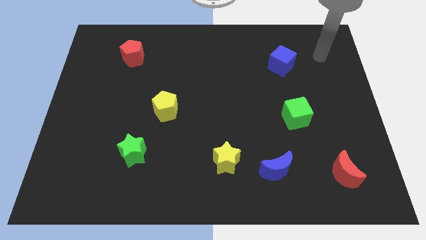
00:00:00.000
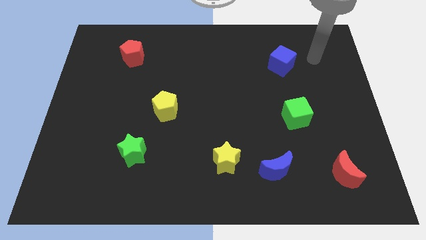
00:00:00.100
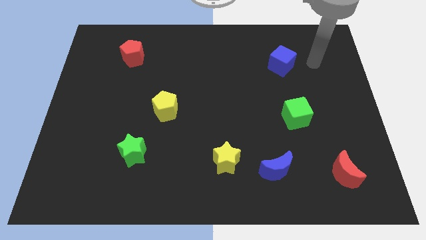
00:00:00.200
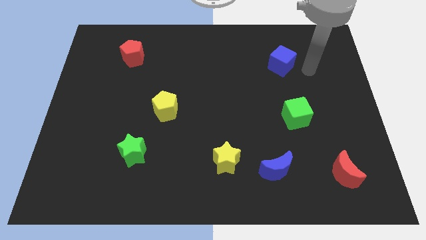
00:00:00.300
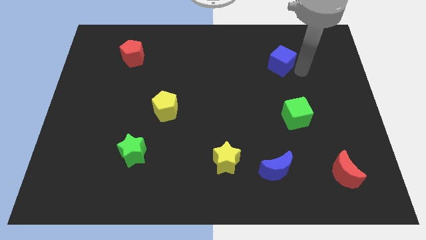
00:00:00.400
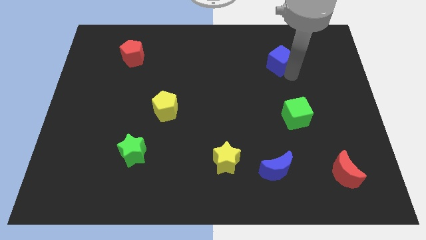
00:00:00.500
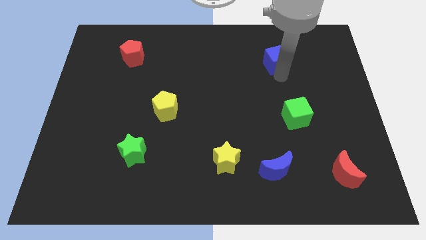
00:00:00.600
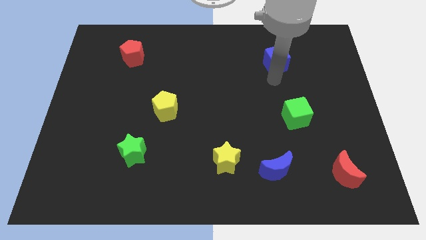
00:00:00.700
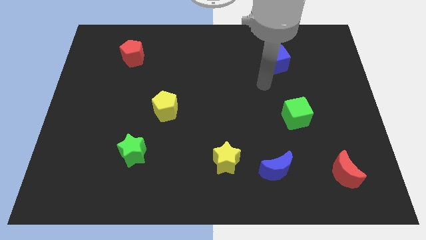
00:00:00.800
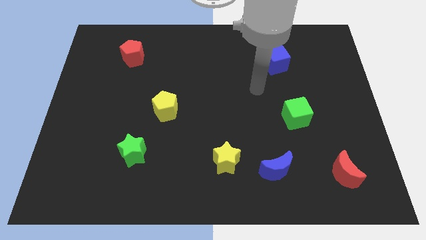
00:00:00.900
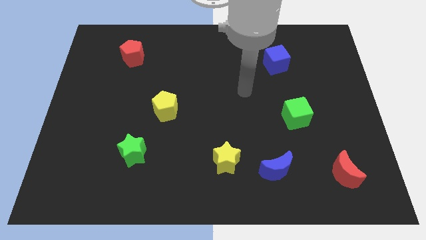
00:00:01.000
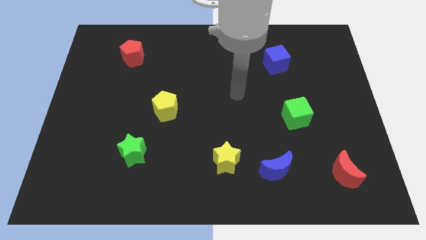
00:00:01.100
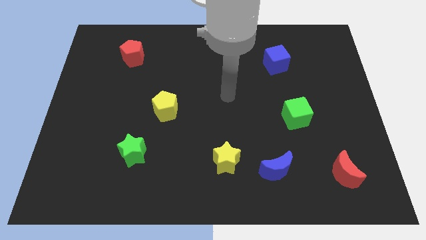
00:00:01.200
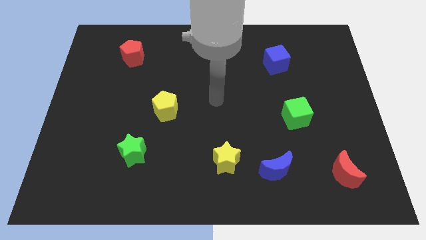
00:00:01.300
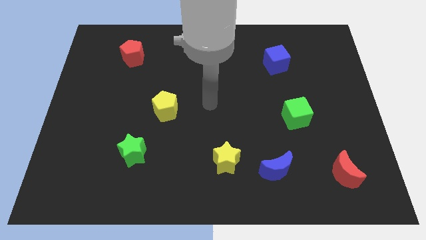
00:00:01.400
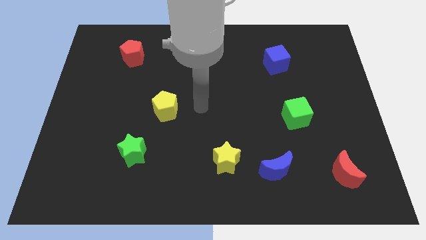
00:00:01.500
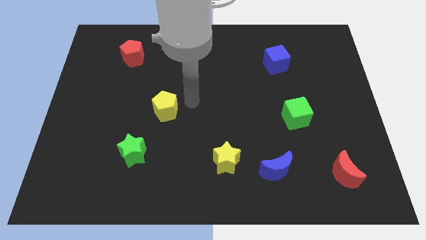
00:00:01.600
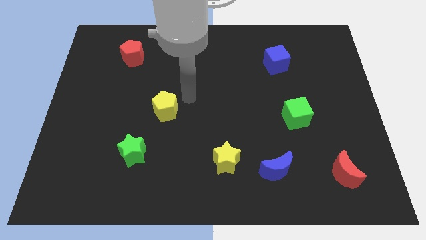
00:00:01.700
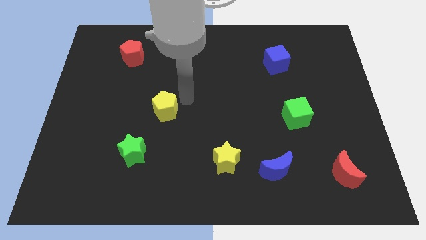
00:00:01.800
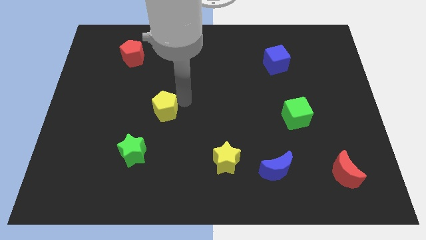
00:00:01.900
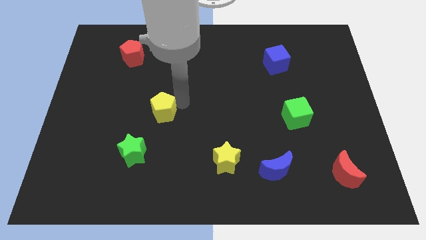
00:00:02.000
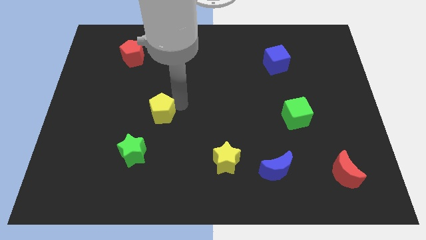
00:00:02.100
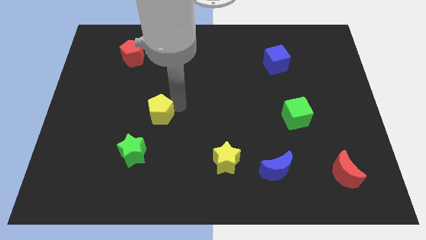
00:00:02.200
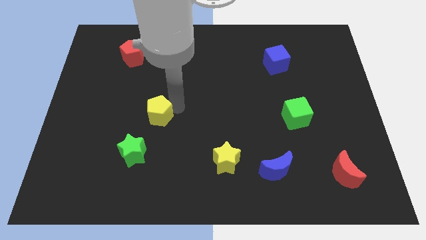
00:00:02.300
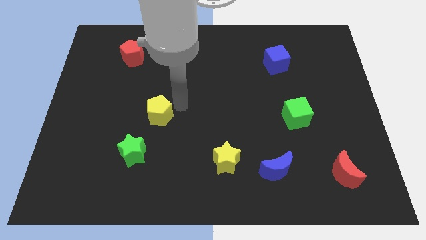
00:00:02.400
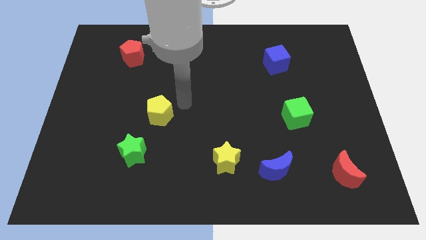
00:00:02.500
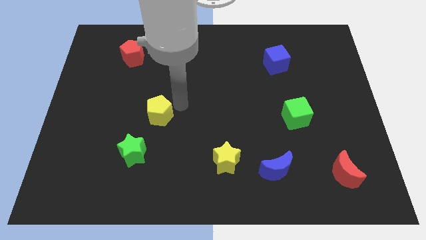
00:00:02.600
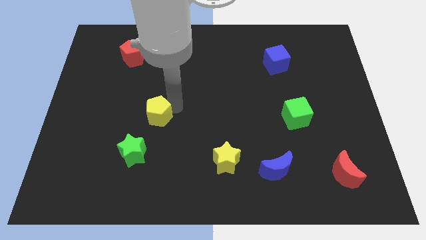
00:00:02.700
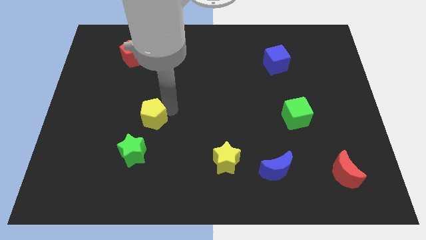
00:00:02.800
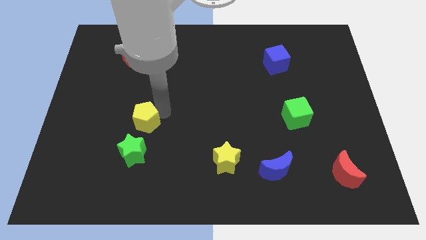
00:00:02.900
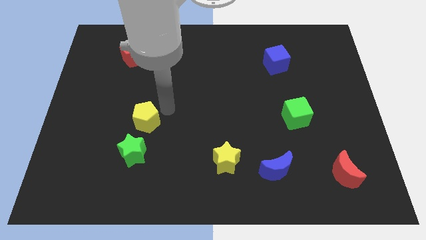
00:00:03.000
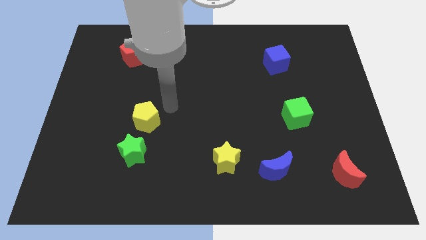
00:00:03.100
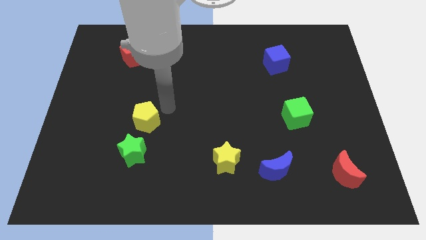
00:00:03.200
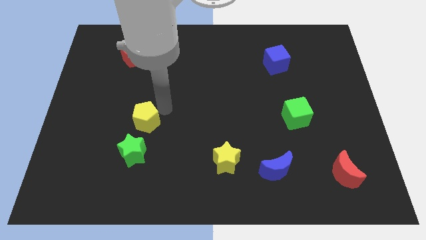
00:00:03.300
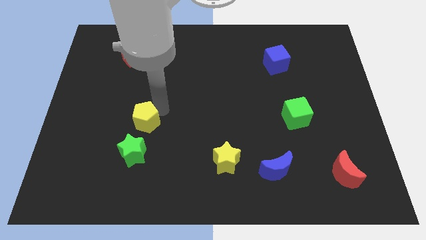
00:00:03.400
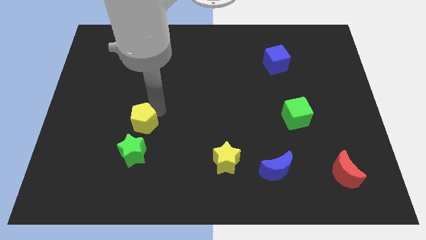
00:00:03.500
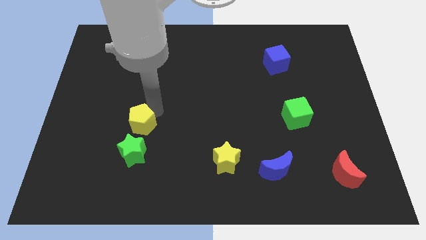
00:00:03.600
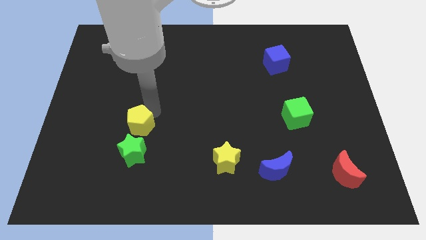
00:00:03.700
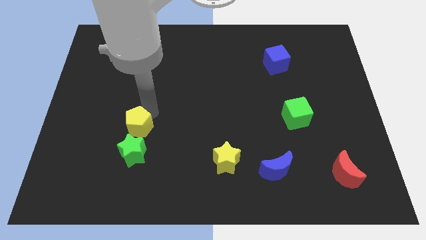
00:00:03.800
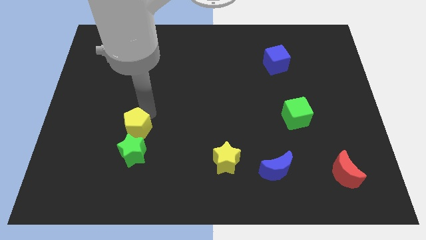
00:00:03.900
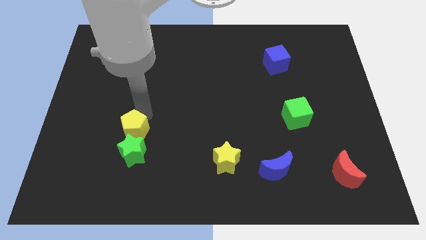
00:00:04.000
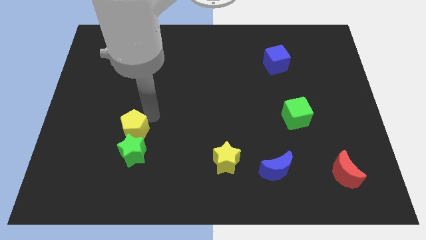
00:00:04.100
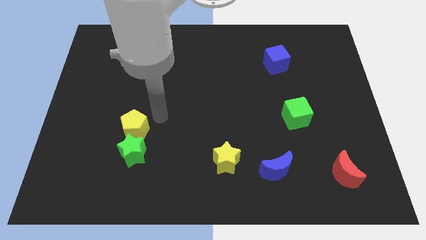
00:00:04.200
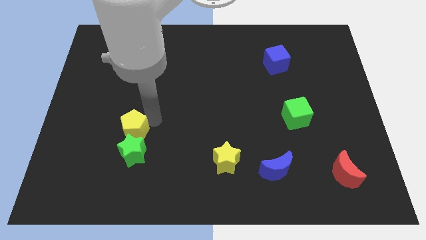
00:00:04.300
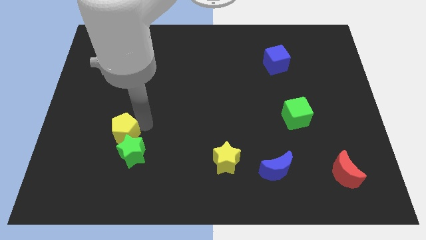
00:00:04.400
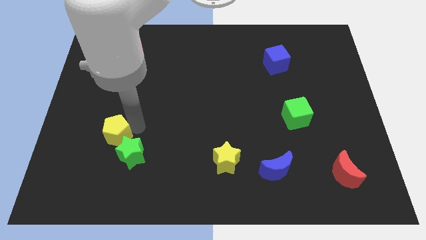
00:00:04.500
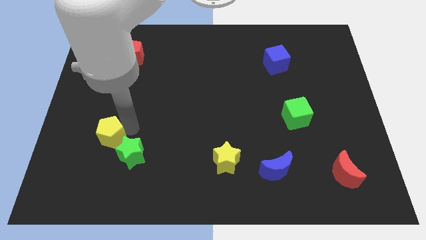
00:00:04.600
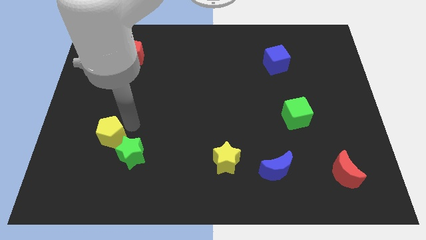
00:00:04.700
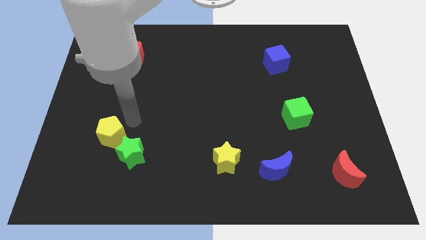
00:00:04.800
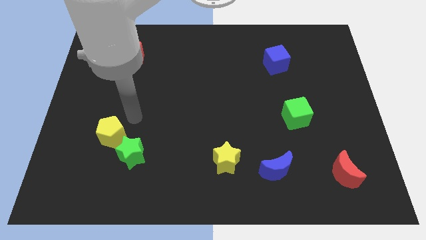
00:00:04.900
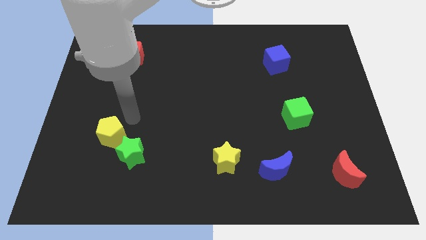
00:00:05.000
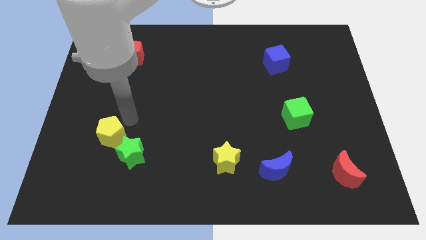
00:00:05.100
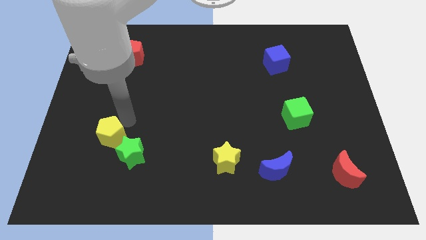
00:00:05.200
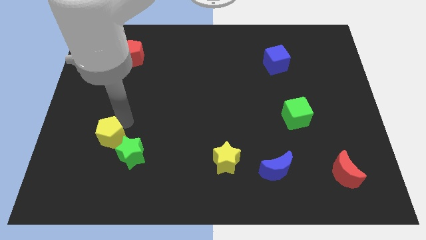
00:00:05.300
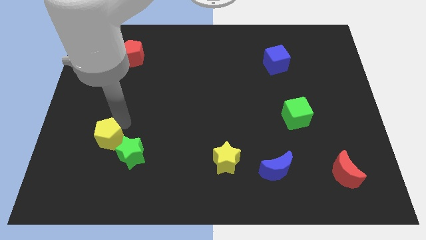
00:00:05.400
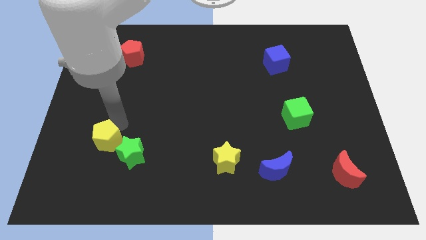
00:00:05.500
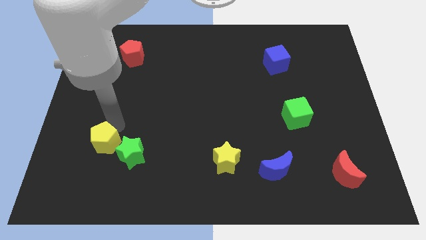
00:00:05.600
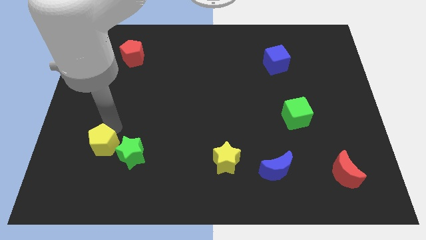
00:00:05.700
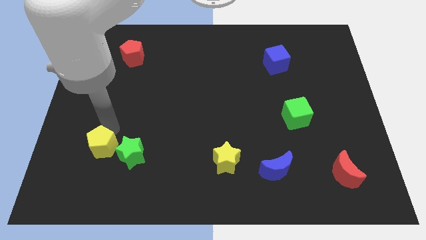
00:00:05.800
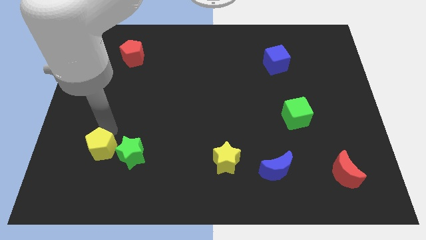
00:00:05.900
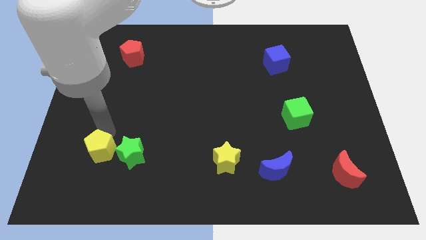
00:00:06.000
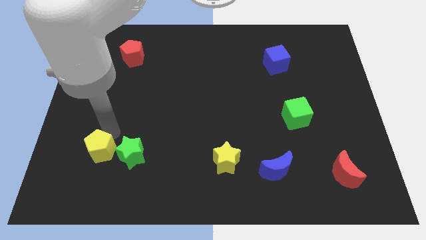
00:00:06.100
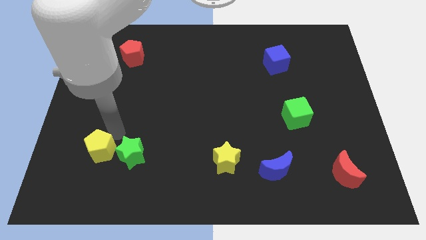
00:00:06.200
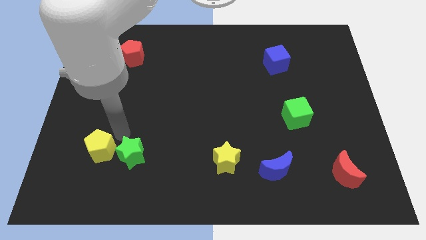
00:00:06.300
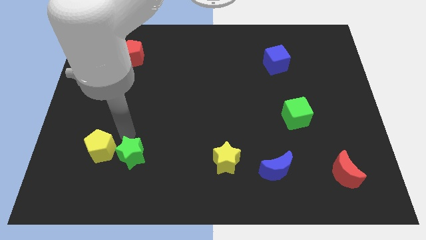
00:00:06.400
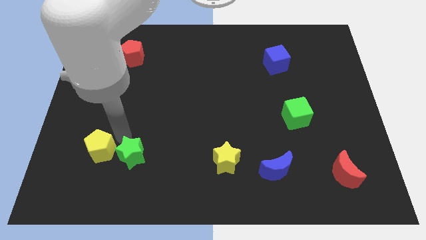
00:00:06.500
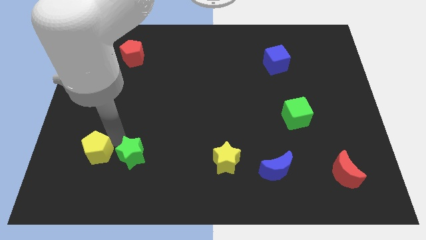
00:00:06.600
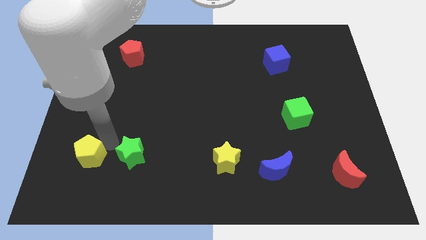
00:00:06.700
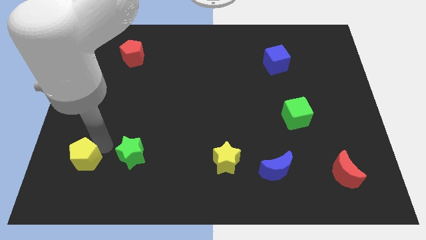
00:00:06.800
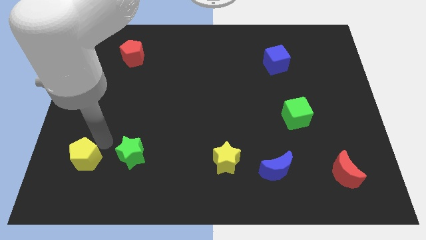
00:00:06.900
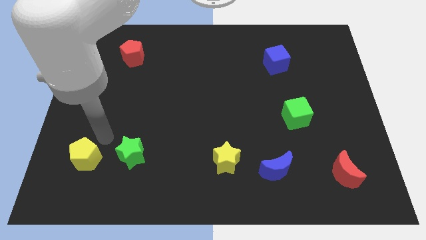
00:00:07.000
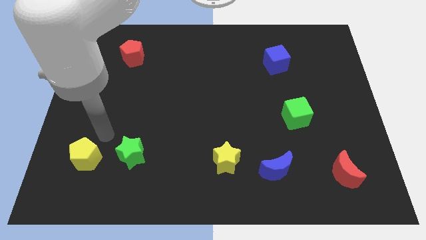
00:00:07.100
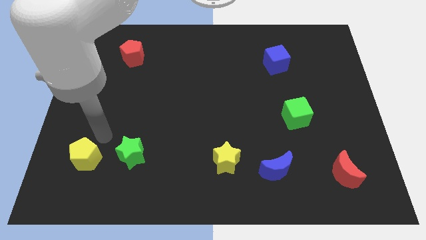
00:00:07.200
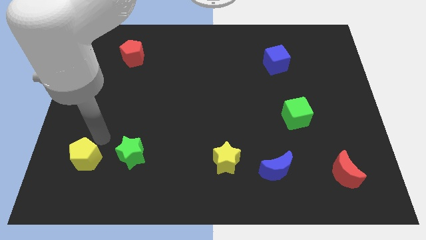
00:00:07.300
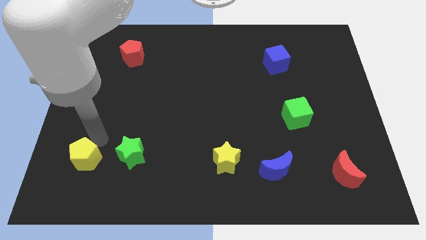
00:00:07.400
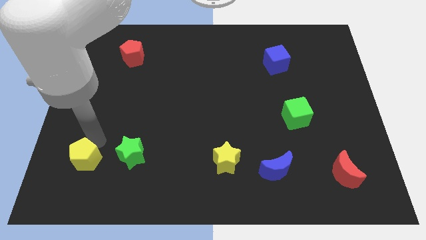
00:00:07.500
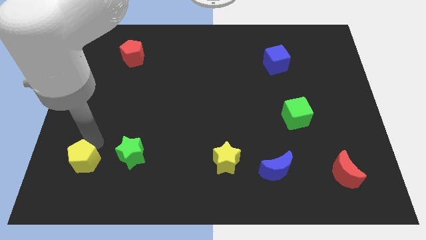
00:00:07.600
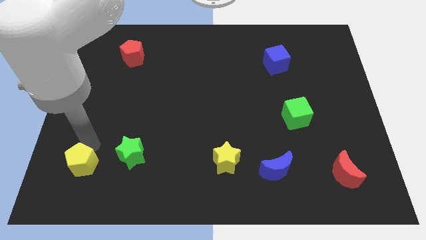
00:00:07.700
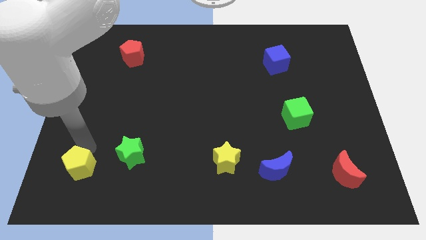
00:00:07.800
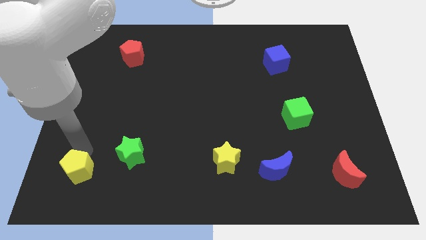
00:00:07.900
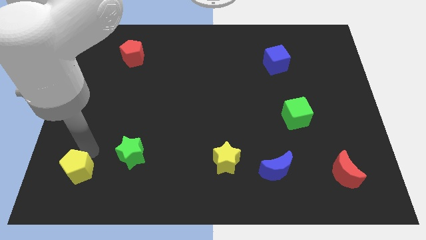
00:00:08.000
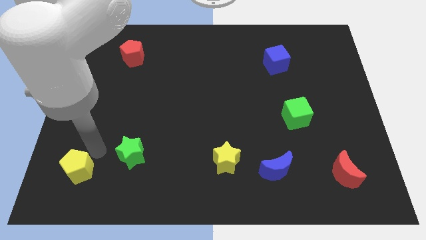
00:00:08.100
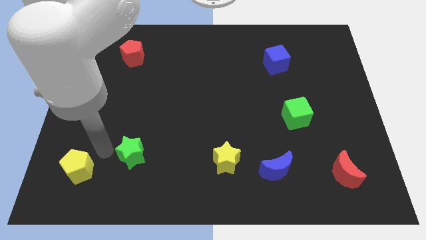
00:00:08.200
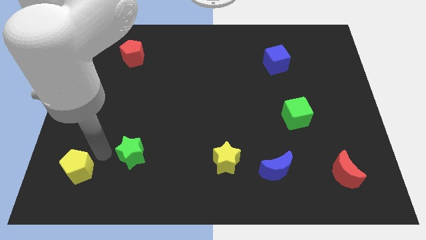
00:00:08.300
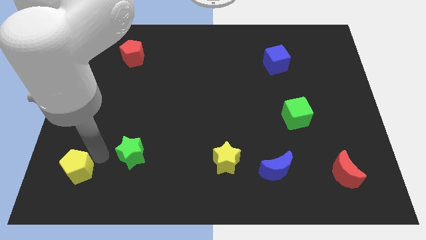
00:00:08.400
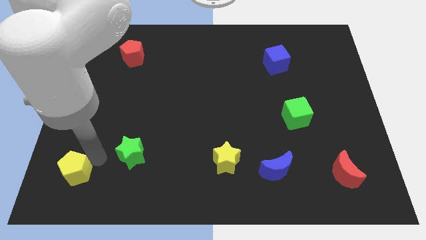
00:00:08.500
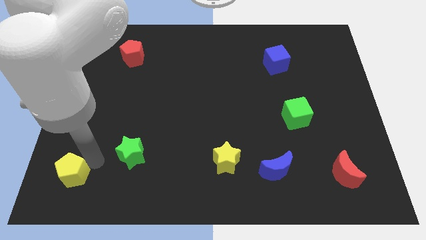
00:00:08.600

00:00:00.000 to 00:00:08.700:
slide the yellow pentagon to the bottom left of the board
